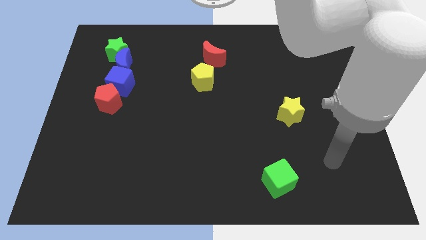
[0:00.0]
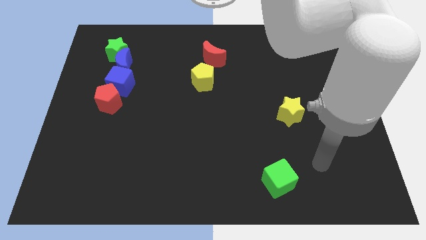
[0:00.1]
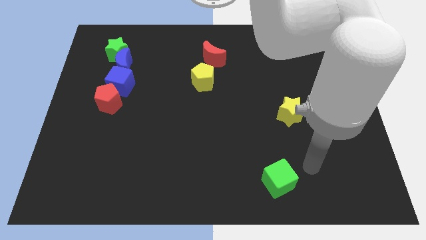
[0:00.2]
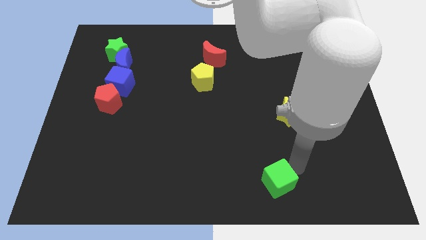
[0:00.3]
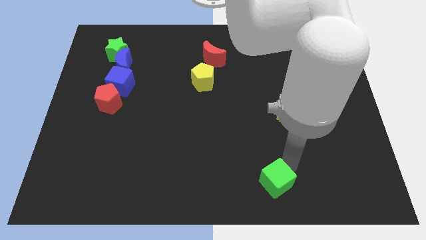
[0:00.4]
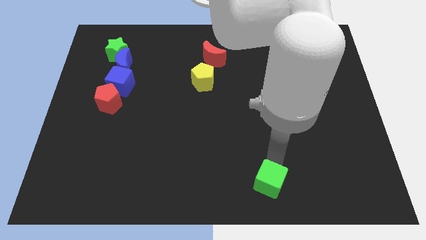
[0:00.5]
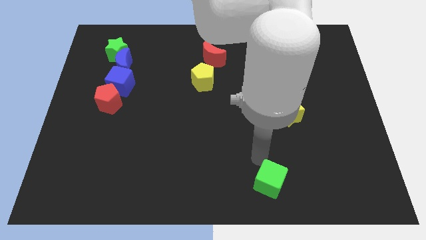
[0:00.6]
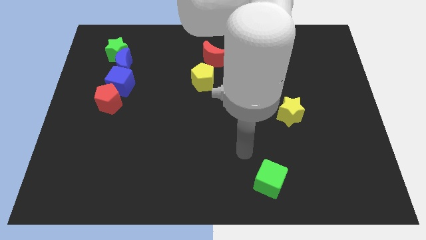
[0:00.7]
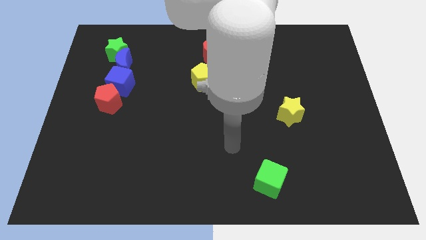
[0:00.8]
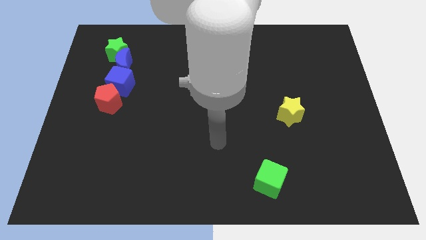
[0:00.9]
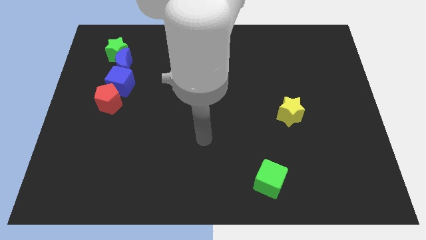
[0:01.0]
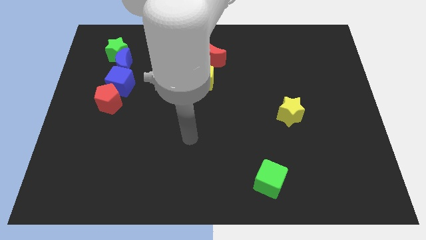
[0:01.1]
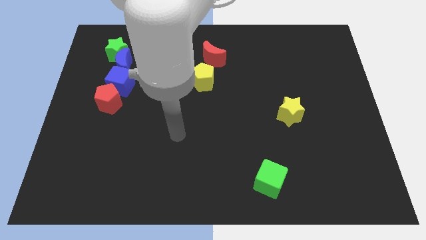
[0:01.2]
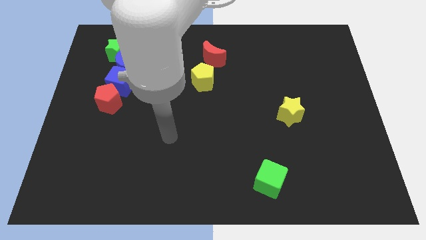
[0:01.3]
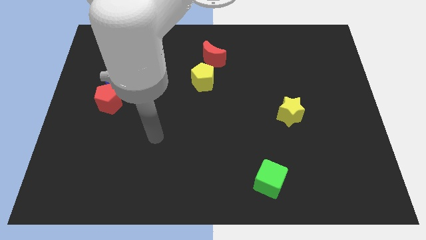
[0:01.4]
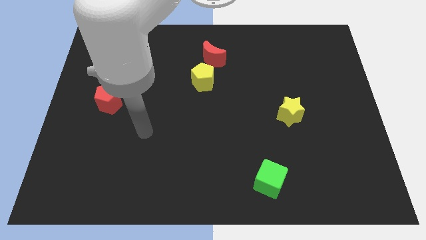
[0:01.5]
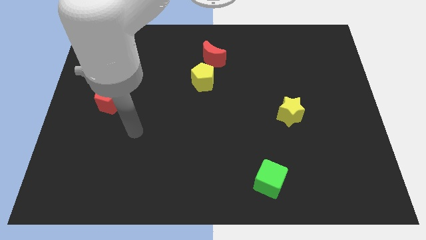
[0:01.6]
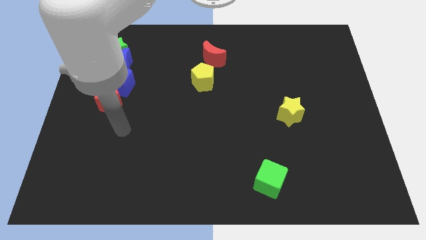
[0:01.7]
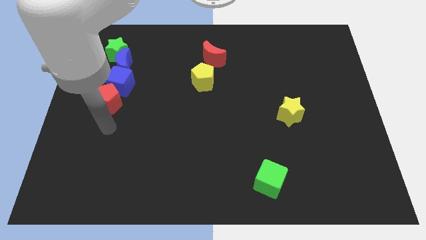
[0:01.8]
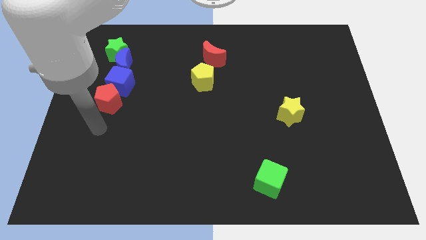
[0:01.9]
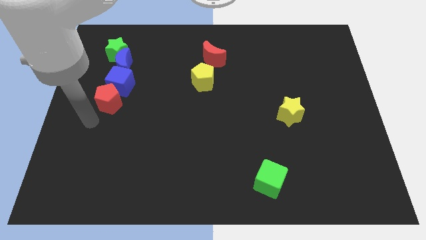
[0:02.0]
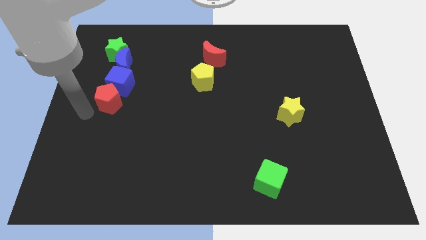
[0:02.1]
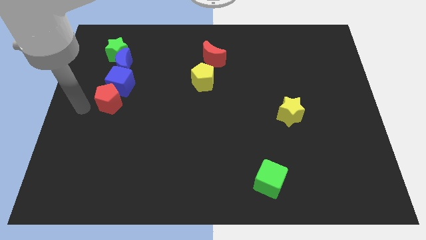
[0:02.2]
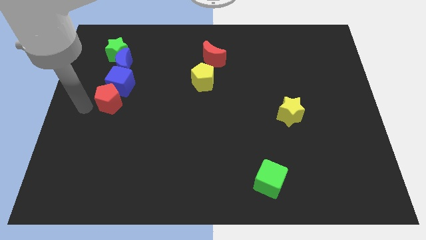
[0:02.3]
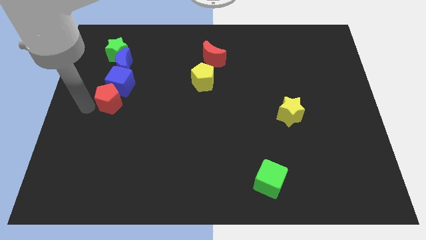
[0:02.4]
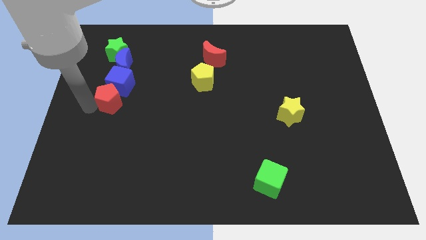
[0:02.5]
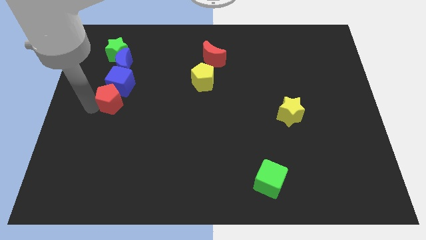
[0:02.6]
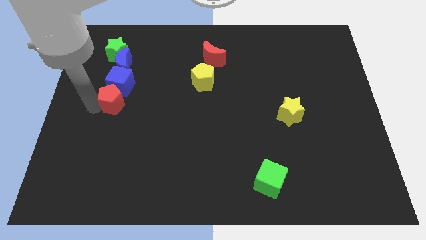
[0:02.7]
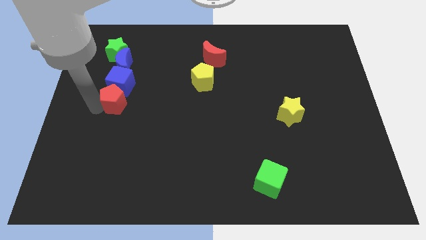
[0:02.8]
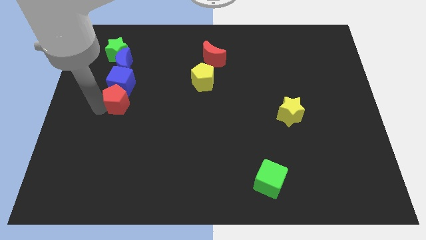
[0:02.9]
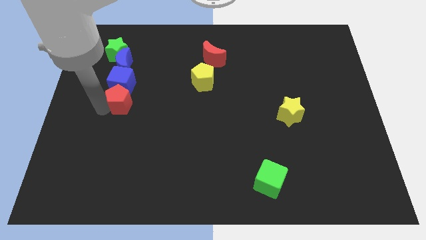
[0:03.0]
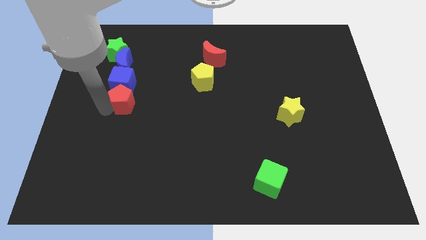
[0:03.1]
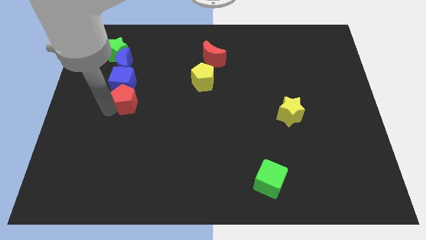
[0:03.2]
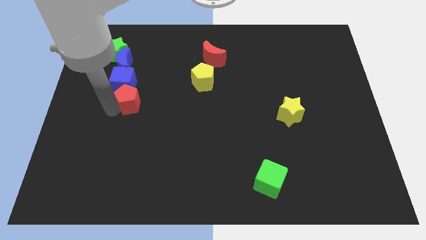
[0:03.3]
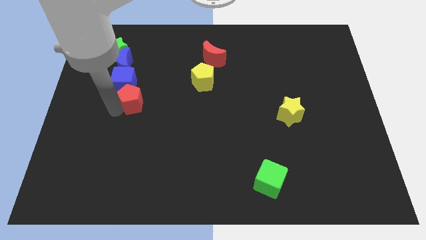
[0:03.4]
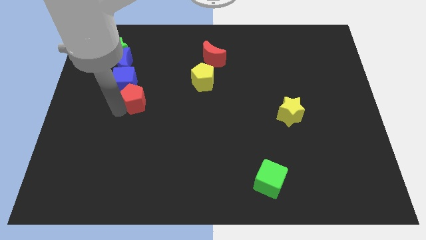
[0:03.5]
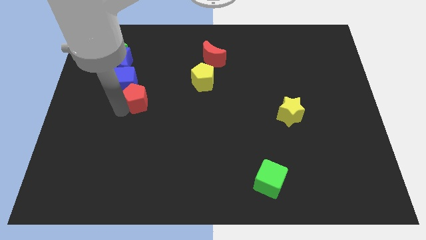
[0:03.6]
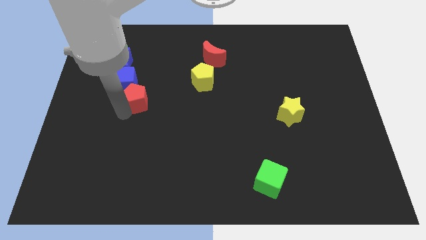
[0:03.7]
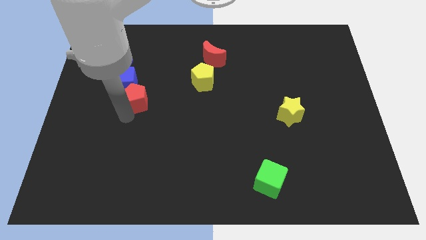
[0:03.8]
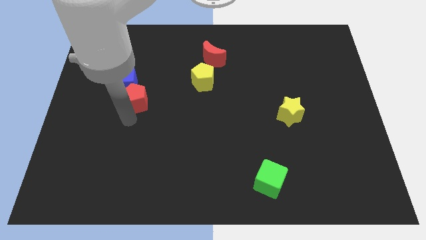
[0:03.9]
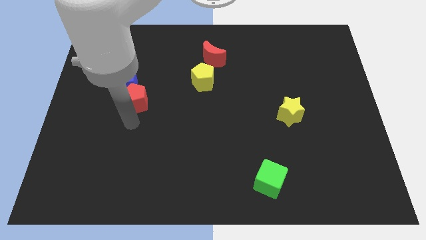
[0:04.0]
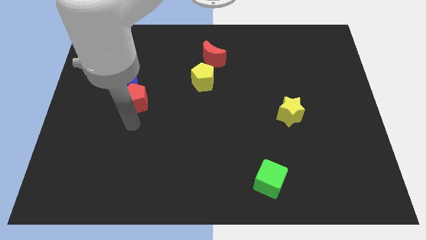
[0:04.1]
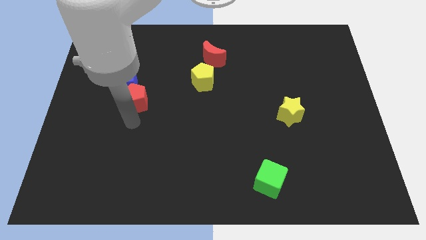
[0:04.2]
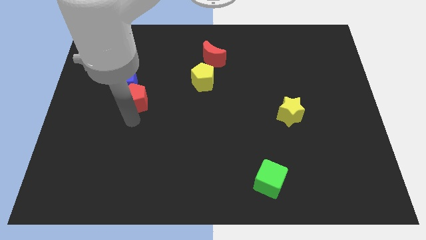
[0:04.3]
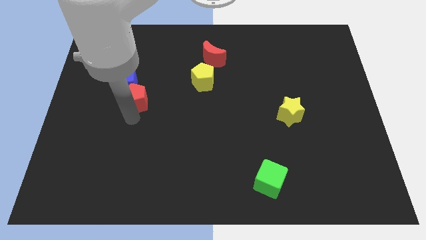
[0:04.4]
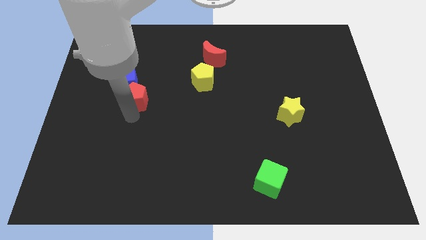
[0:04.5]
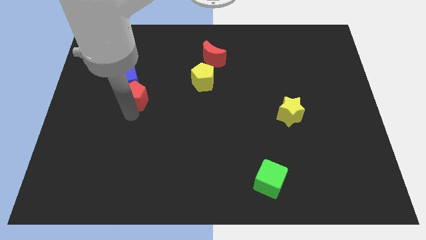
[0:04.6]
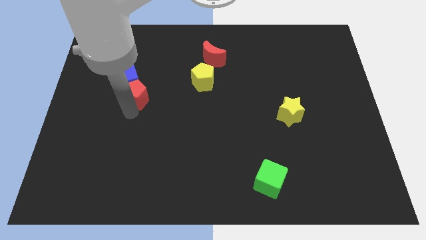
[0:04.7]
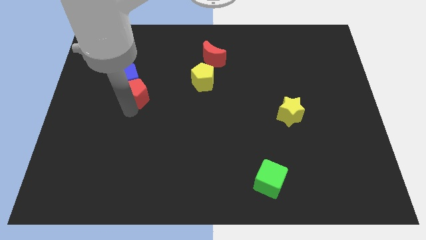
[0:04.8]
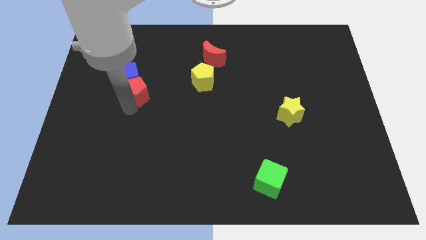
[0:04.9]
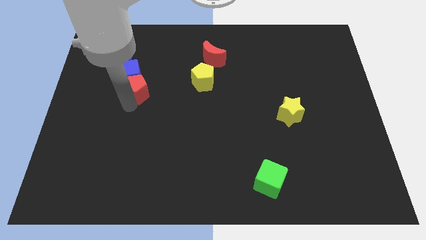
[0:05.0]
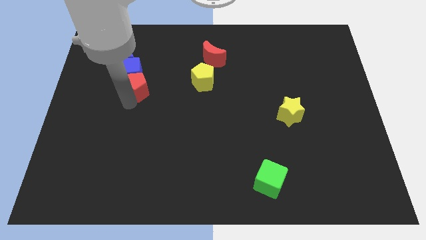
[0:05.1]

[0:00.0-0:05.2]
move the red pentagon a bit diagonally upwards and right

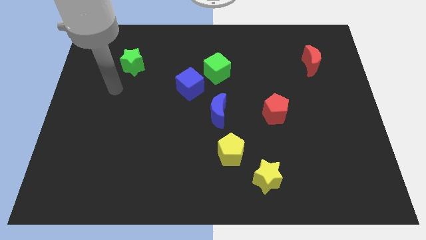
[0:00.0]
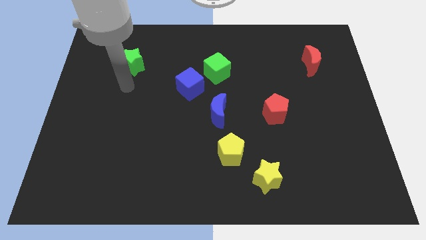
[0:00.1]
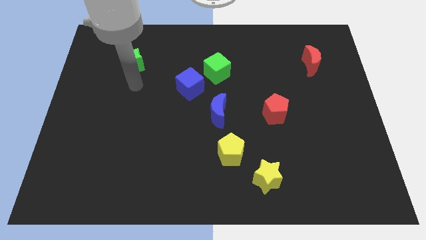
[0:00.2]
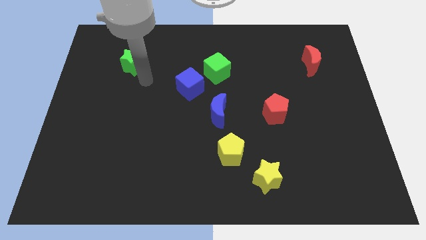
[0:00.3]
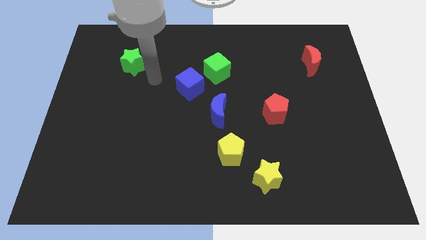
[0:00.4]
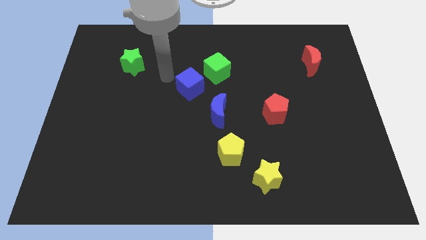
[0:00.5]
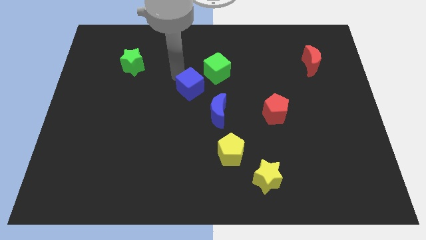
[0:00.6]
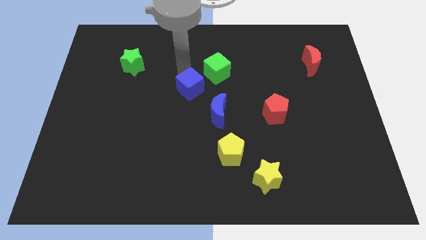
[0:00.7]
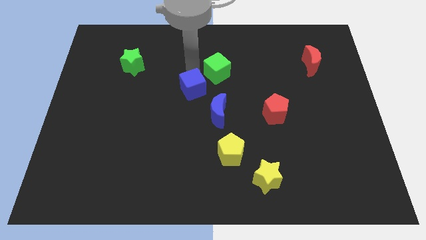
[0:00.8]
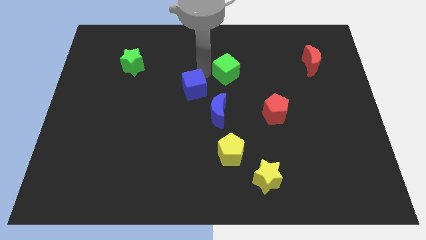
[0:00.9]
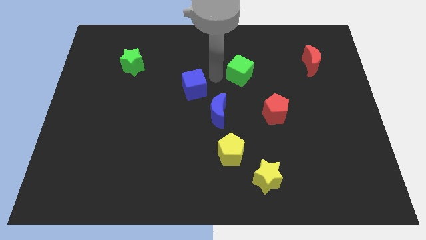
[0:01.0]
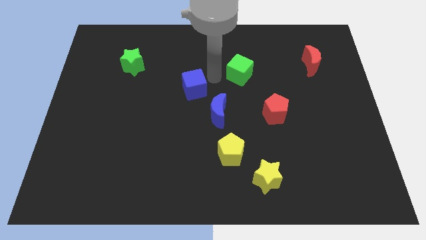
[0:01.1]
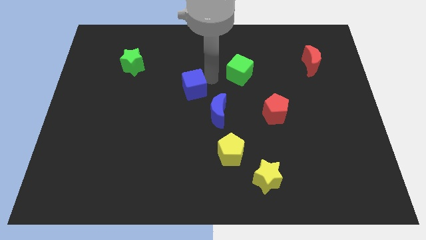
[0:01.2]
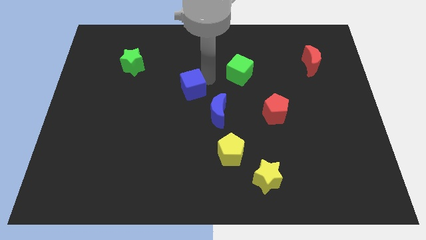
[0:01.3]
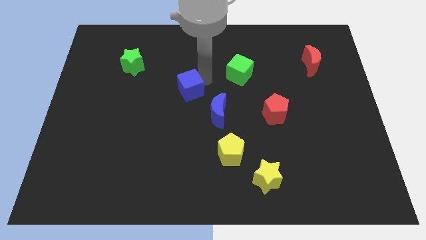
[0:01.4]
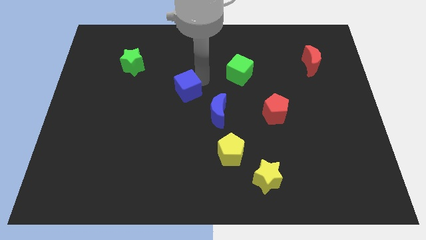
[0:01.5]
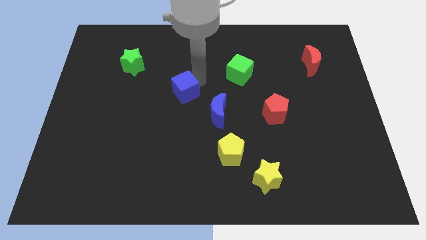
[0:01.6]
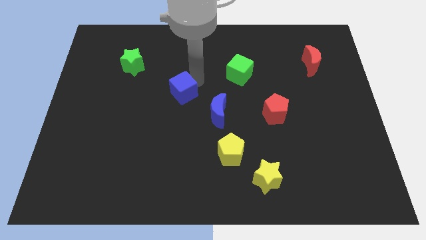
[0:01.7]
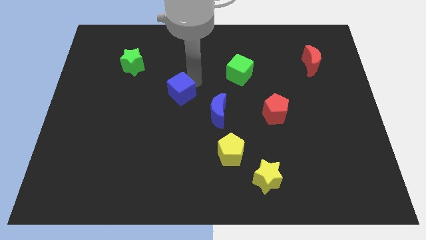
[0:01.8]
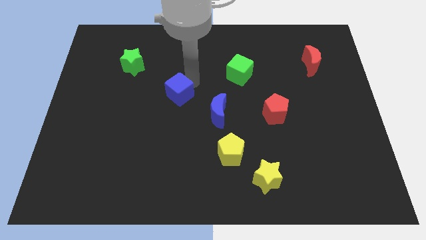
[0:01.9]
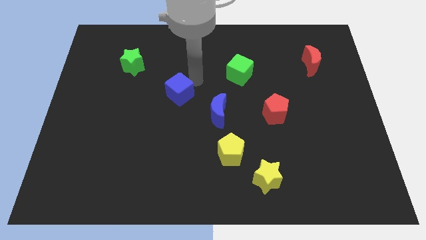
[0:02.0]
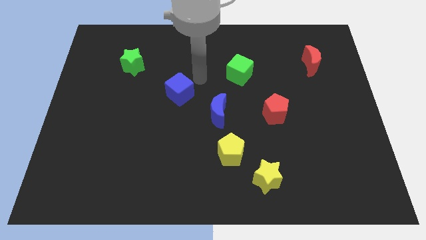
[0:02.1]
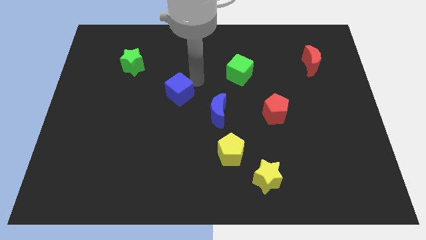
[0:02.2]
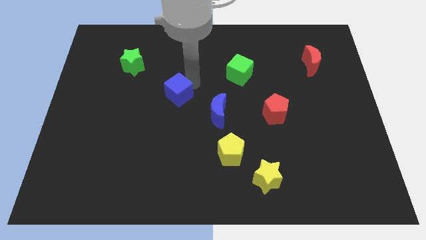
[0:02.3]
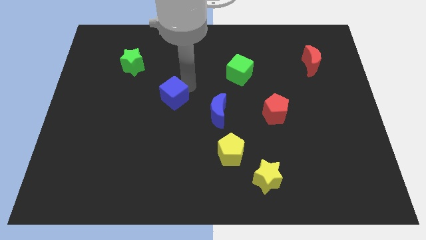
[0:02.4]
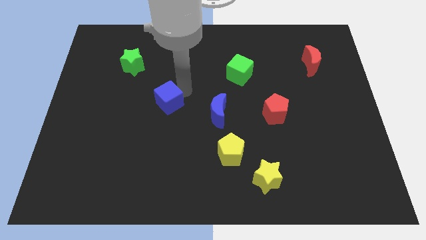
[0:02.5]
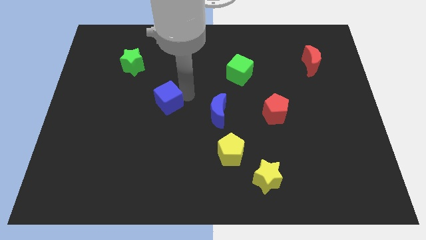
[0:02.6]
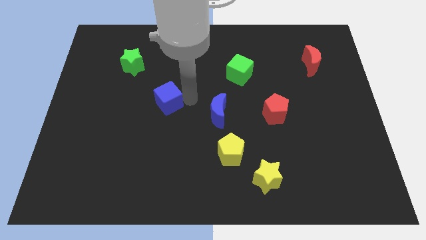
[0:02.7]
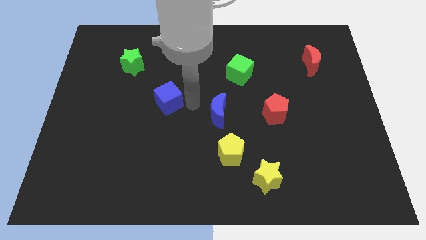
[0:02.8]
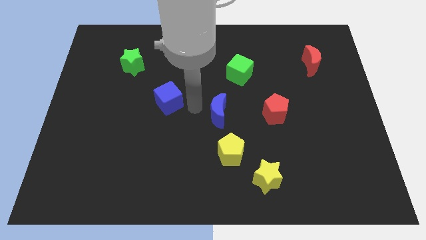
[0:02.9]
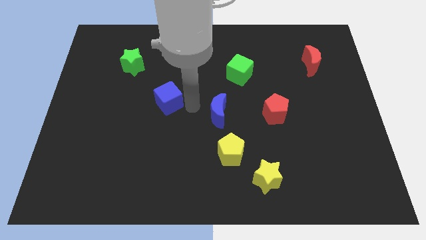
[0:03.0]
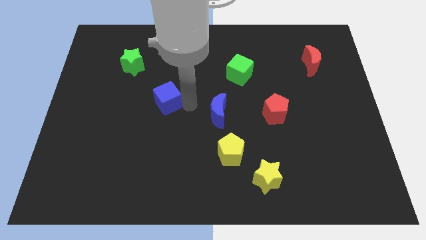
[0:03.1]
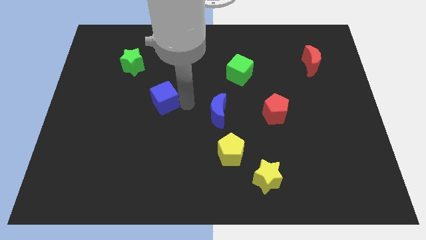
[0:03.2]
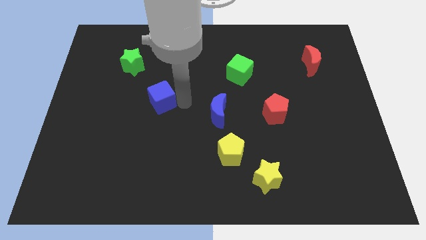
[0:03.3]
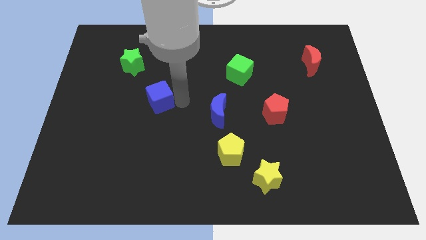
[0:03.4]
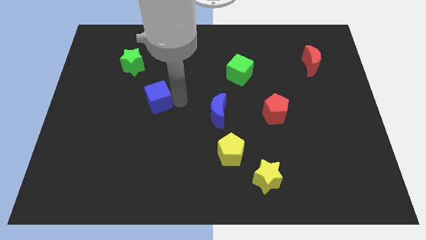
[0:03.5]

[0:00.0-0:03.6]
slide the blue cube somewhat to the left
